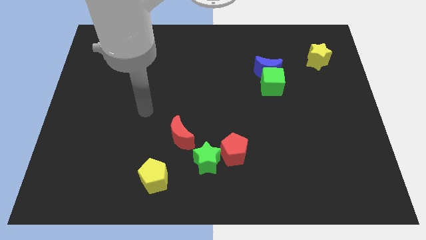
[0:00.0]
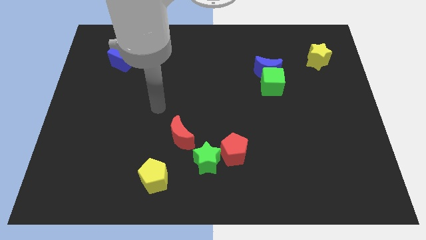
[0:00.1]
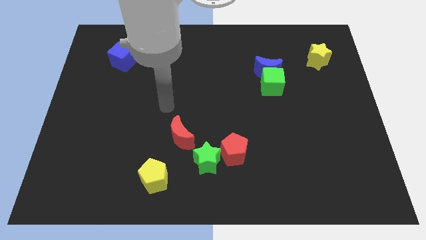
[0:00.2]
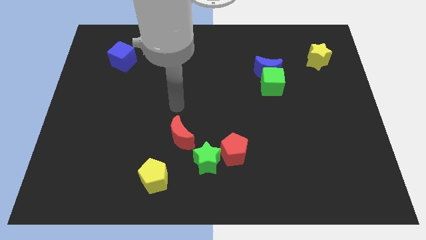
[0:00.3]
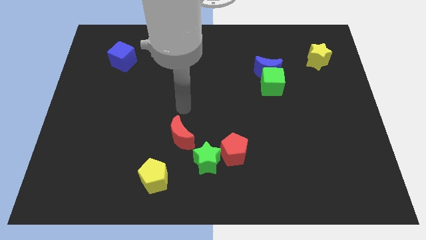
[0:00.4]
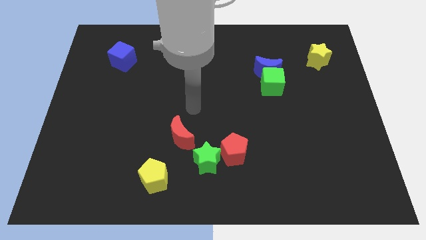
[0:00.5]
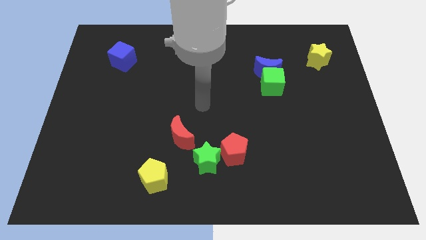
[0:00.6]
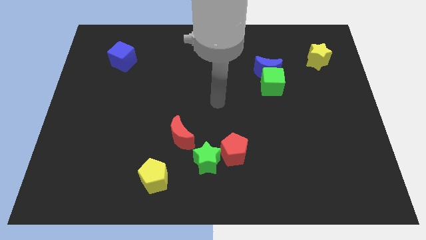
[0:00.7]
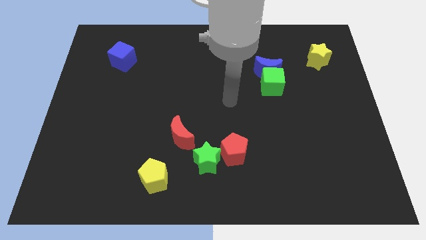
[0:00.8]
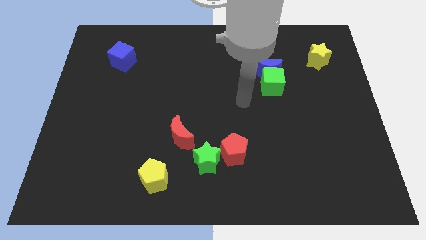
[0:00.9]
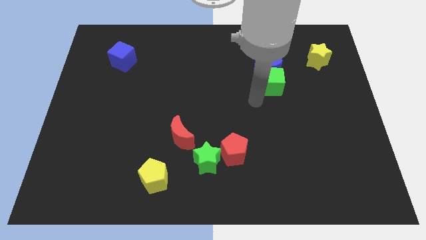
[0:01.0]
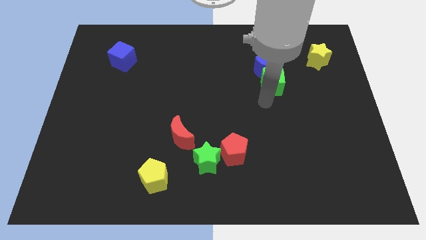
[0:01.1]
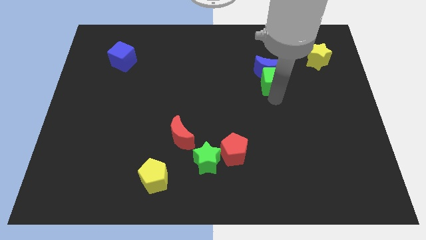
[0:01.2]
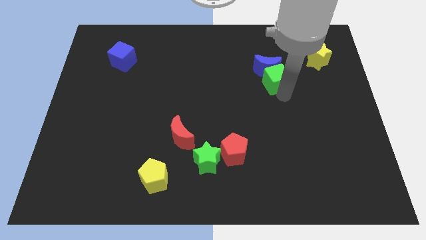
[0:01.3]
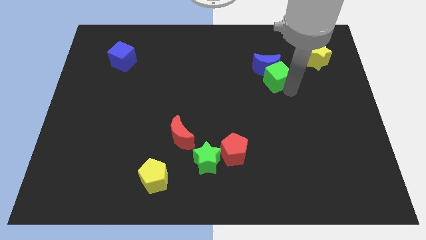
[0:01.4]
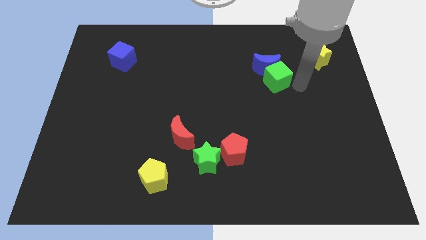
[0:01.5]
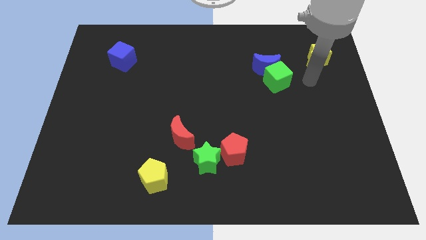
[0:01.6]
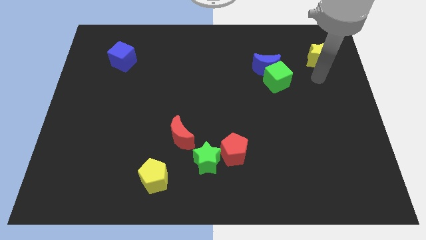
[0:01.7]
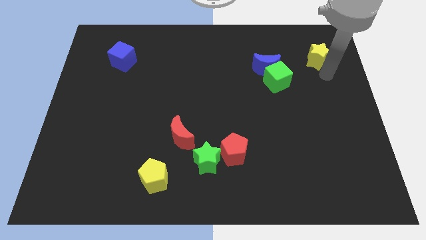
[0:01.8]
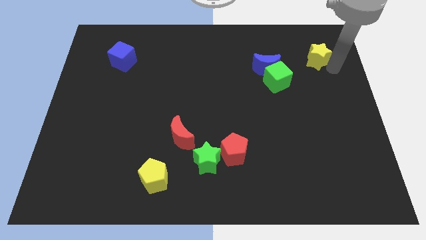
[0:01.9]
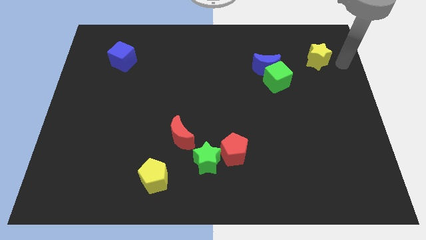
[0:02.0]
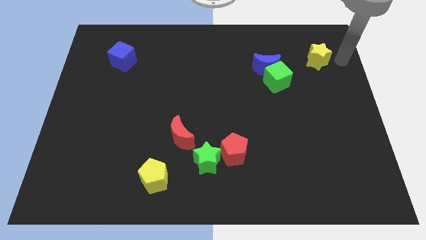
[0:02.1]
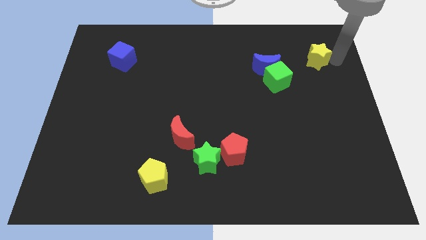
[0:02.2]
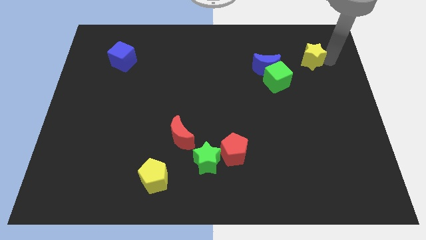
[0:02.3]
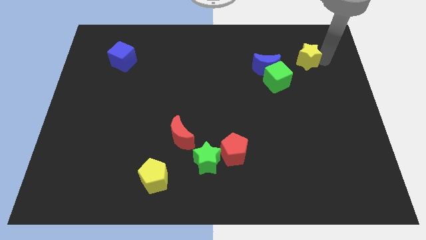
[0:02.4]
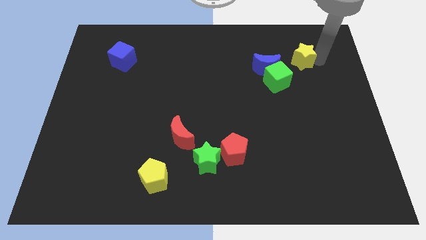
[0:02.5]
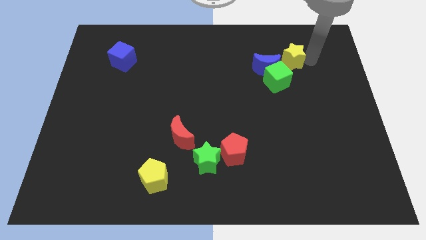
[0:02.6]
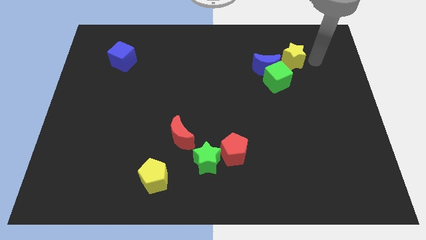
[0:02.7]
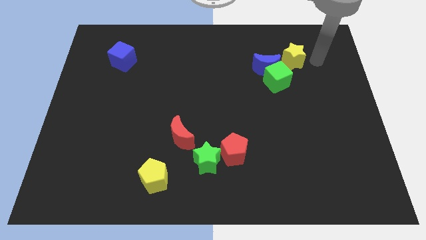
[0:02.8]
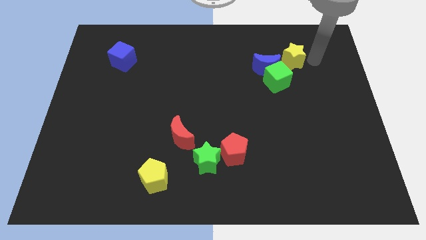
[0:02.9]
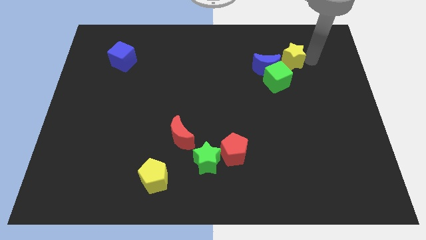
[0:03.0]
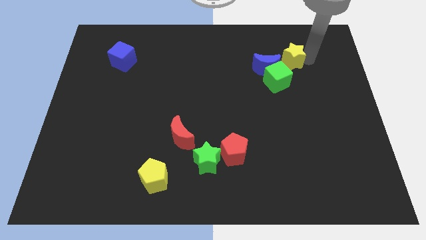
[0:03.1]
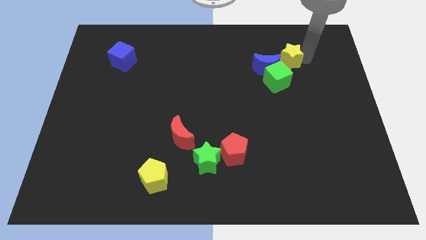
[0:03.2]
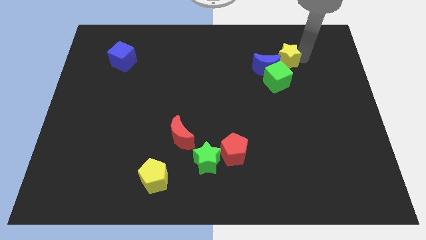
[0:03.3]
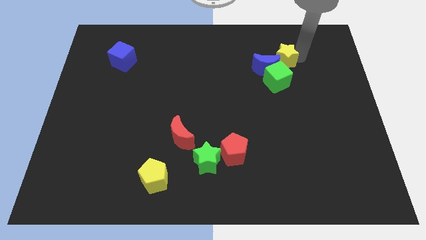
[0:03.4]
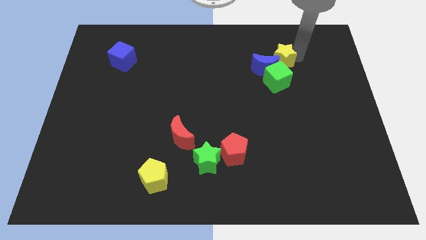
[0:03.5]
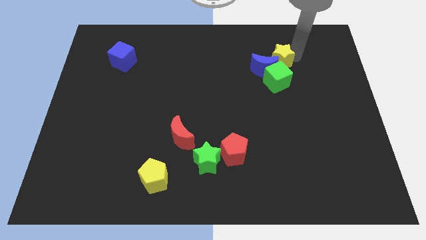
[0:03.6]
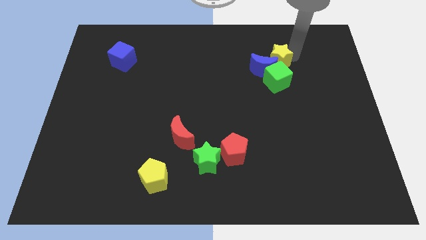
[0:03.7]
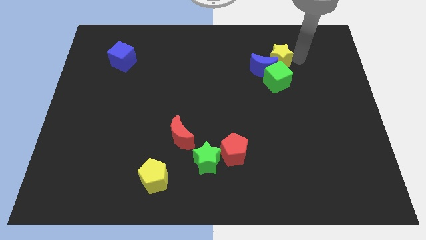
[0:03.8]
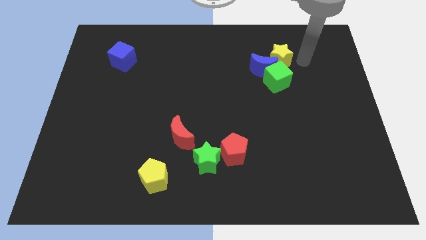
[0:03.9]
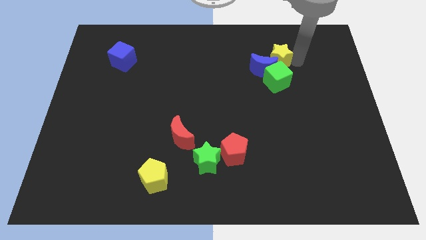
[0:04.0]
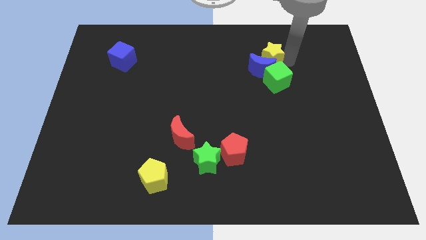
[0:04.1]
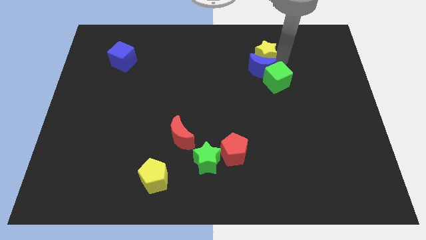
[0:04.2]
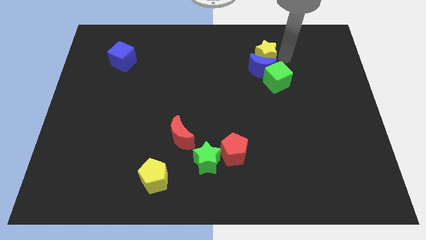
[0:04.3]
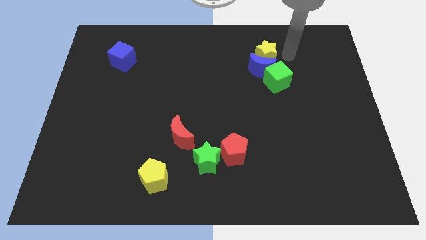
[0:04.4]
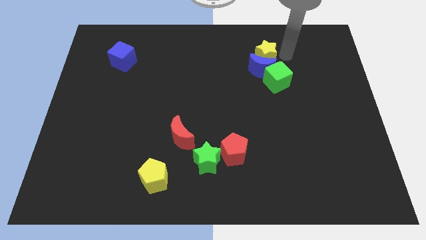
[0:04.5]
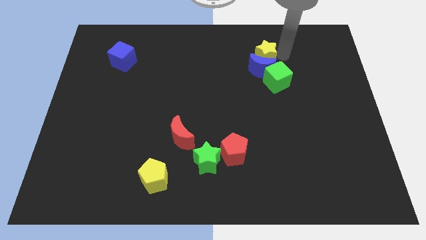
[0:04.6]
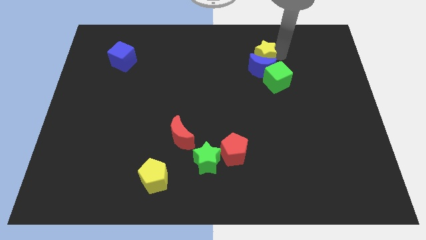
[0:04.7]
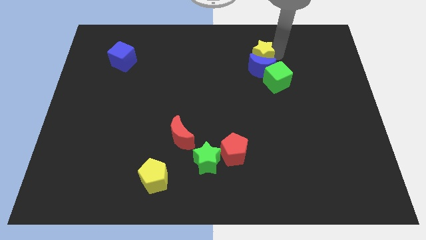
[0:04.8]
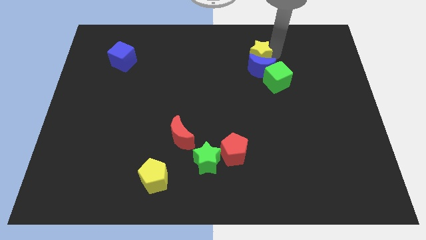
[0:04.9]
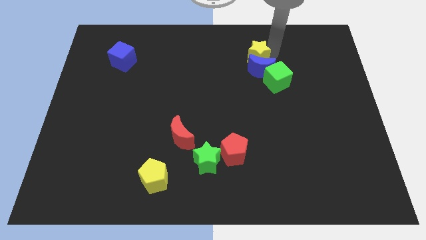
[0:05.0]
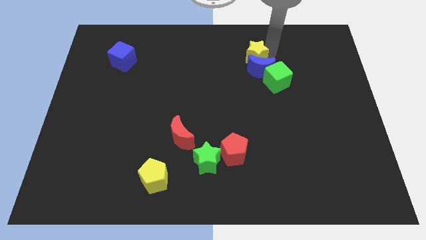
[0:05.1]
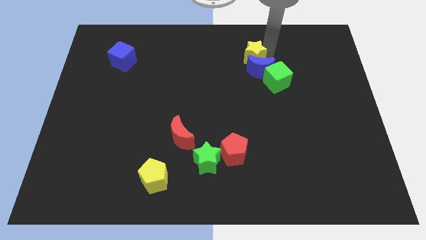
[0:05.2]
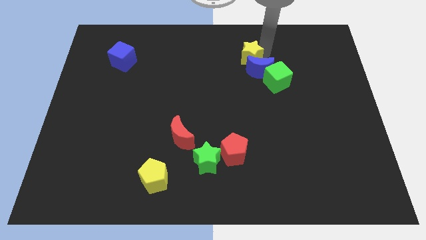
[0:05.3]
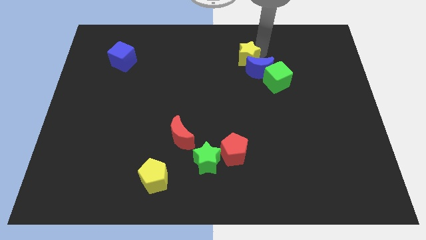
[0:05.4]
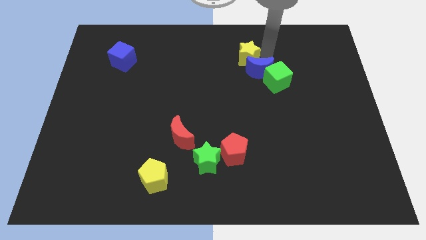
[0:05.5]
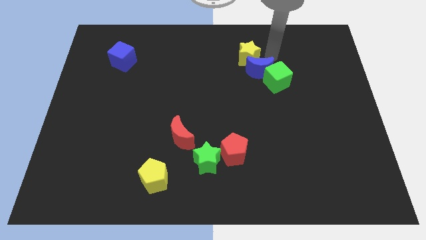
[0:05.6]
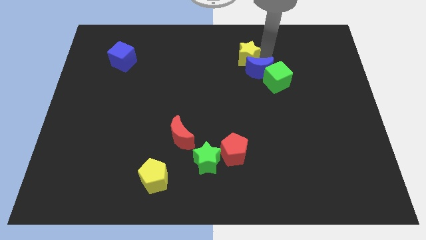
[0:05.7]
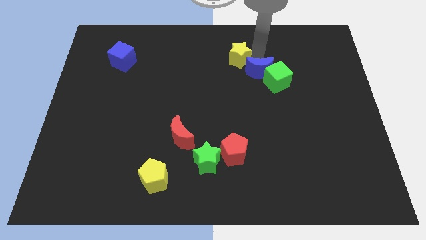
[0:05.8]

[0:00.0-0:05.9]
push the yellow star left

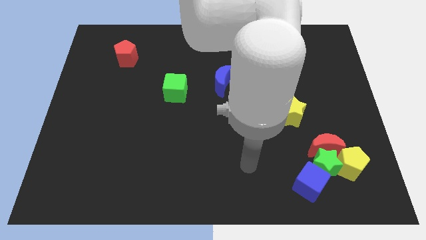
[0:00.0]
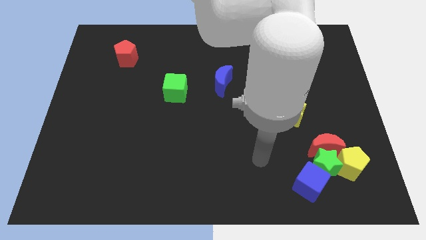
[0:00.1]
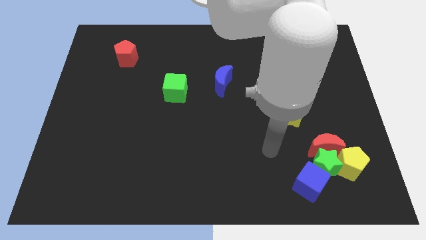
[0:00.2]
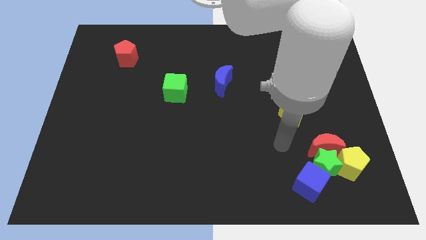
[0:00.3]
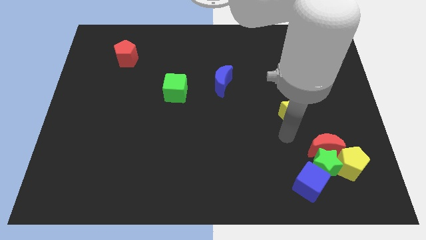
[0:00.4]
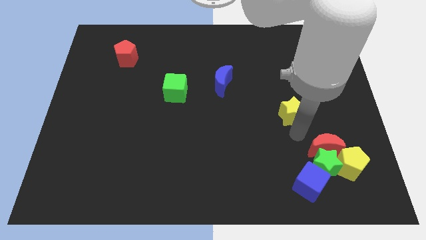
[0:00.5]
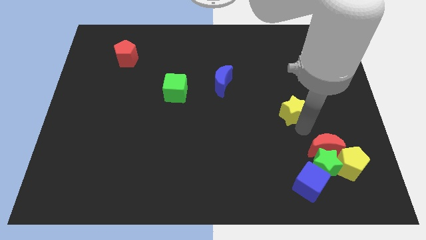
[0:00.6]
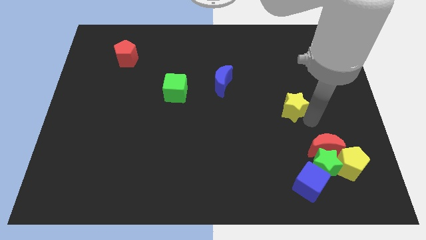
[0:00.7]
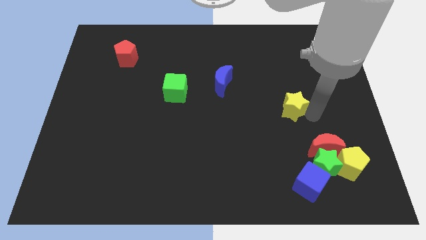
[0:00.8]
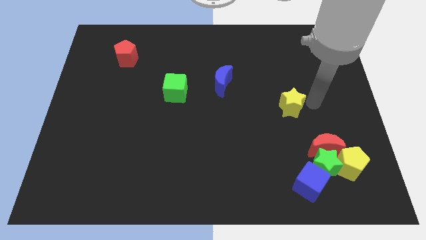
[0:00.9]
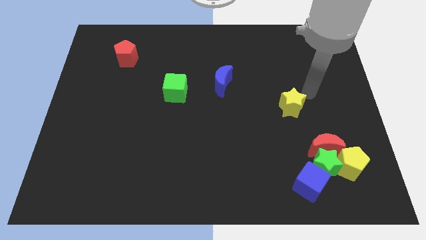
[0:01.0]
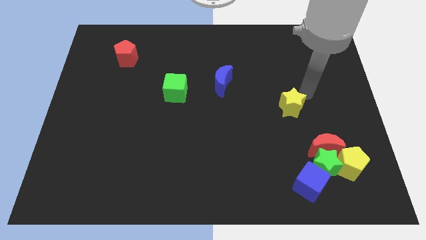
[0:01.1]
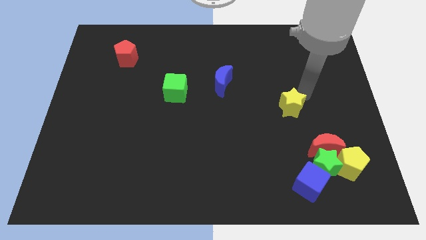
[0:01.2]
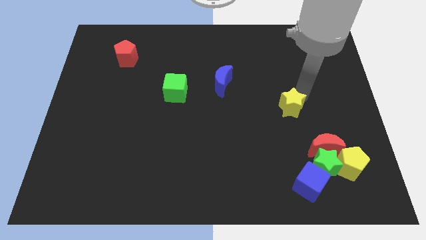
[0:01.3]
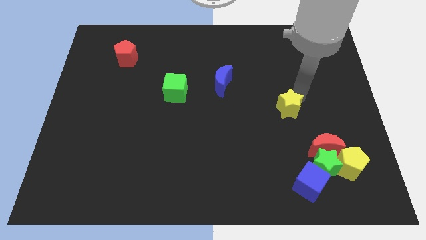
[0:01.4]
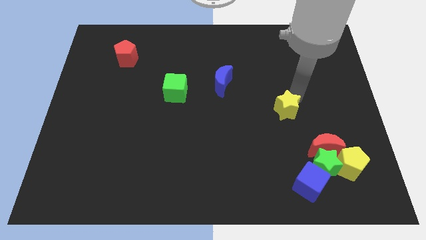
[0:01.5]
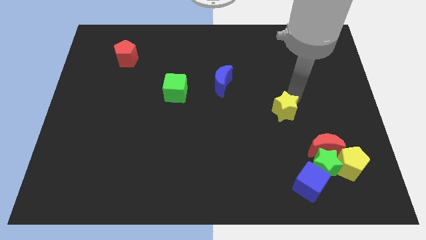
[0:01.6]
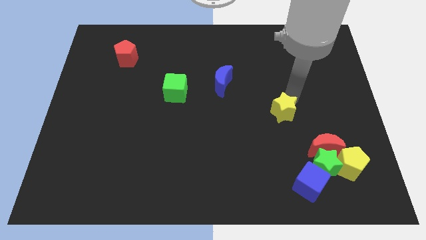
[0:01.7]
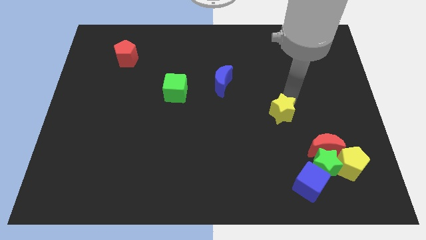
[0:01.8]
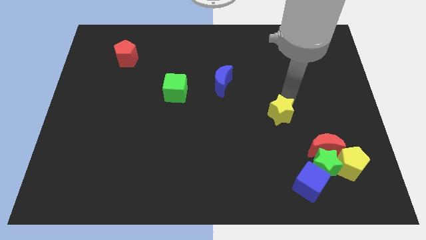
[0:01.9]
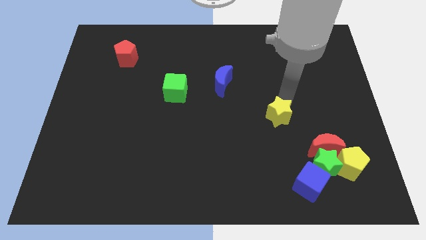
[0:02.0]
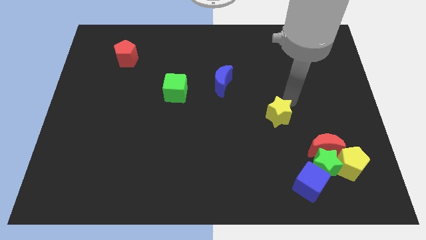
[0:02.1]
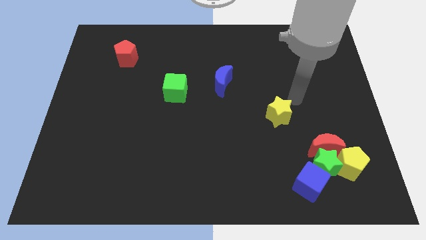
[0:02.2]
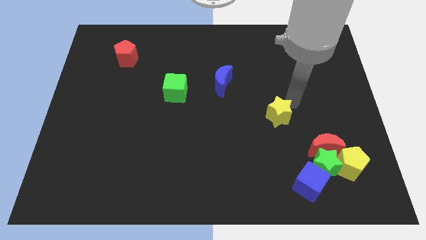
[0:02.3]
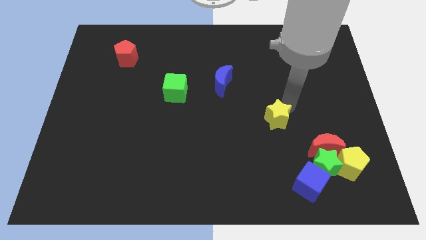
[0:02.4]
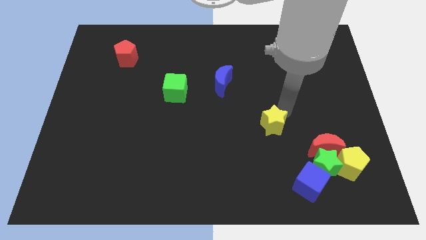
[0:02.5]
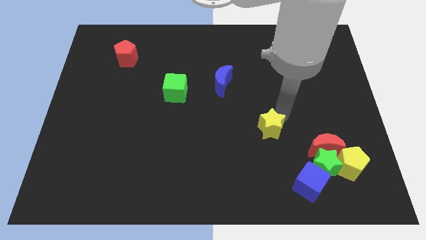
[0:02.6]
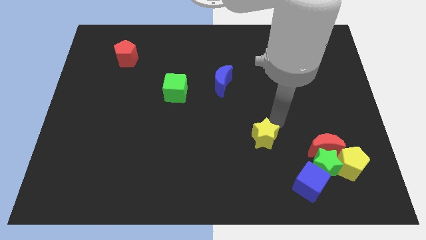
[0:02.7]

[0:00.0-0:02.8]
slightly push the yellow star downwards and to the left

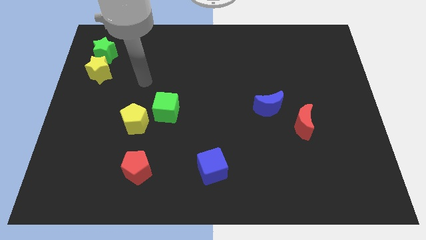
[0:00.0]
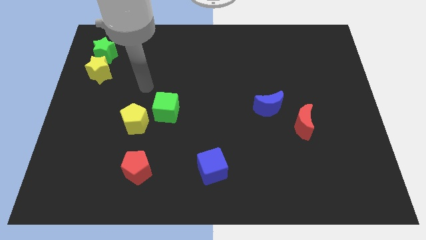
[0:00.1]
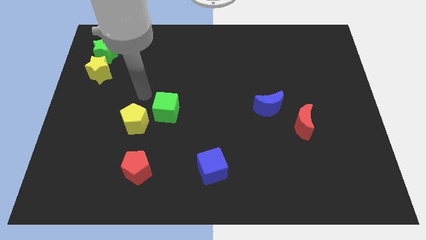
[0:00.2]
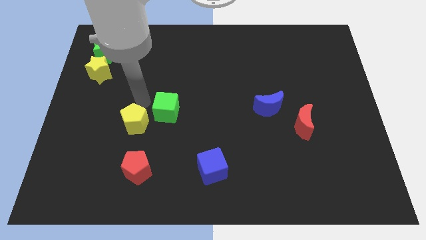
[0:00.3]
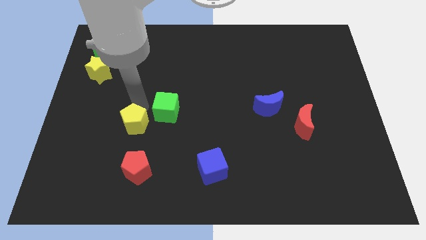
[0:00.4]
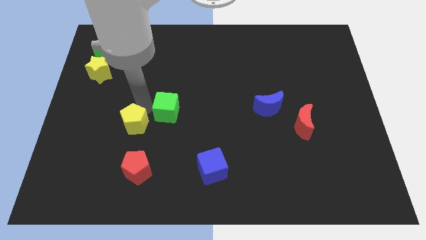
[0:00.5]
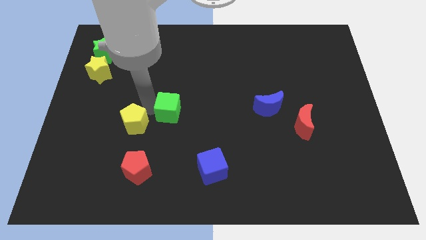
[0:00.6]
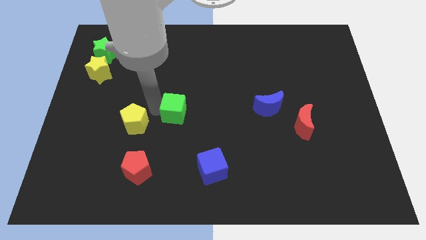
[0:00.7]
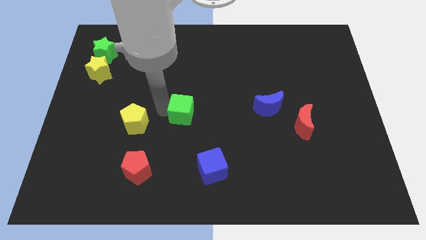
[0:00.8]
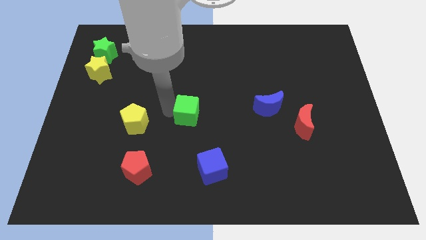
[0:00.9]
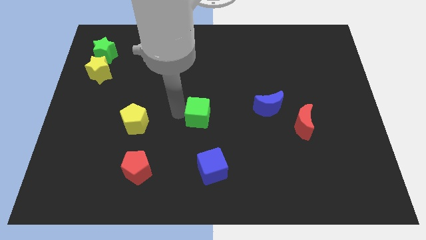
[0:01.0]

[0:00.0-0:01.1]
move the green cube a little to the right
